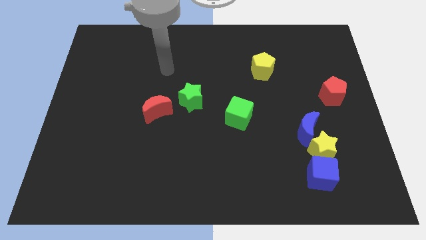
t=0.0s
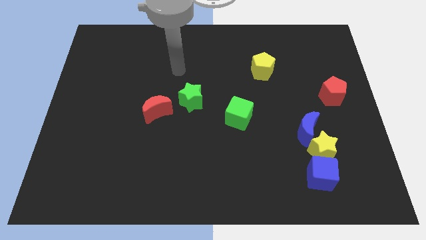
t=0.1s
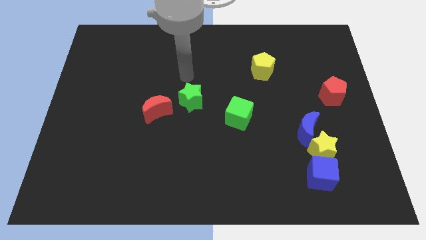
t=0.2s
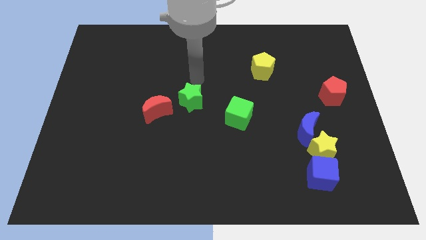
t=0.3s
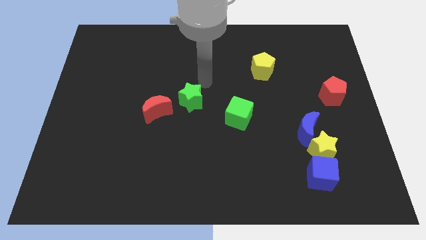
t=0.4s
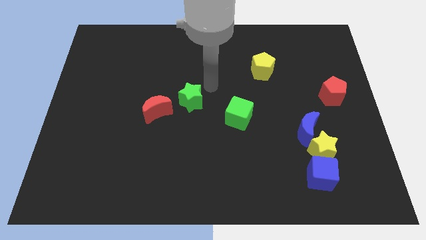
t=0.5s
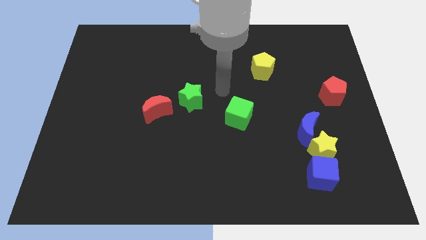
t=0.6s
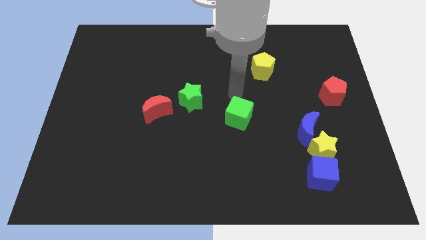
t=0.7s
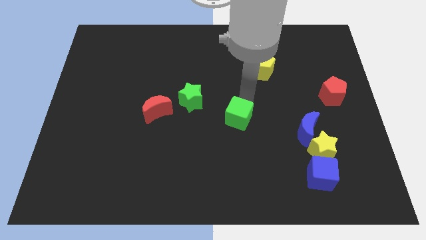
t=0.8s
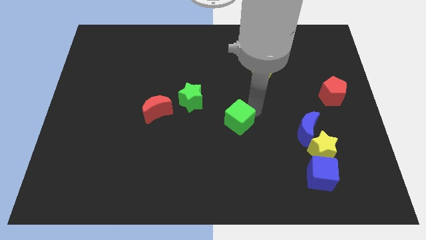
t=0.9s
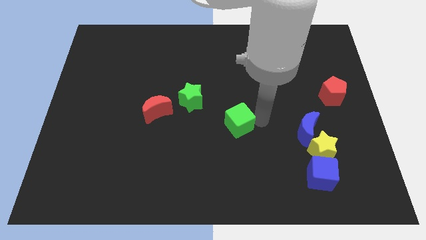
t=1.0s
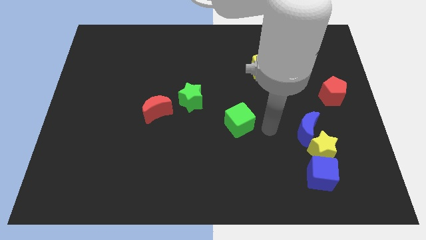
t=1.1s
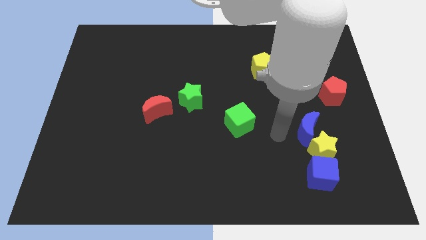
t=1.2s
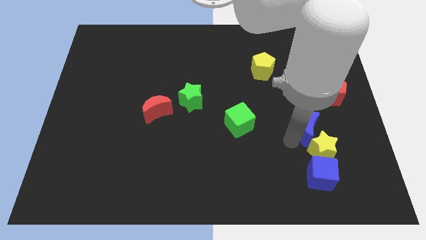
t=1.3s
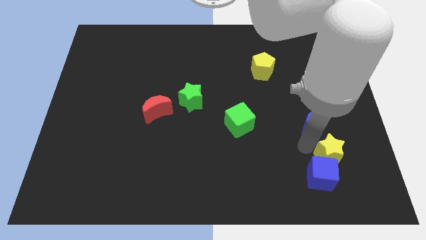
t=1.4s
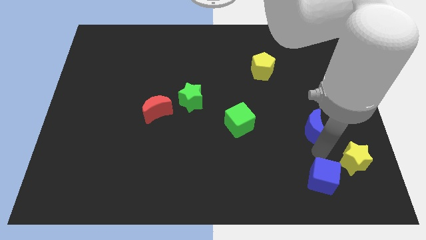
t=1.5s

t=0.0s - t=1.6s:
pull the blue moon apart from the yellow star

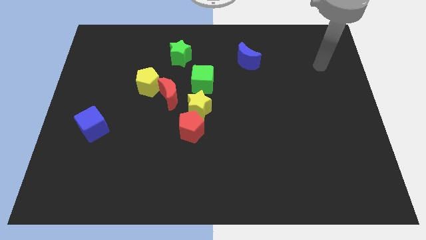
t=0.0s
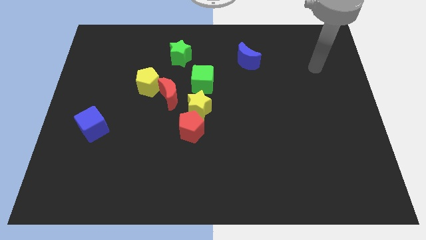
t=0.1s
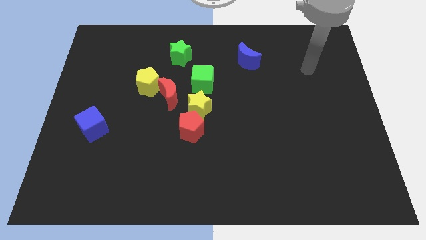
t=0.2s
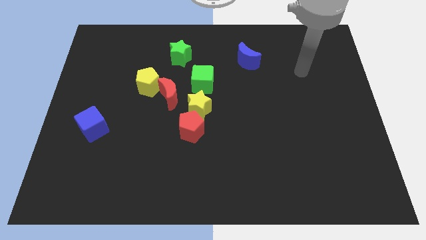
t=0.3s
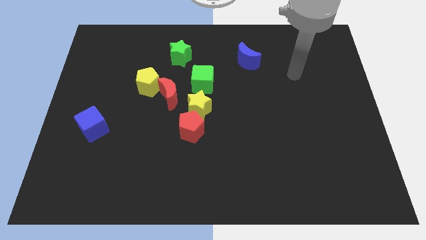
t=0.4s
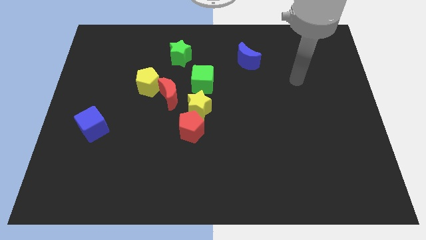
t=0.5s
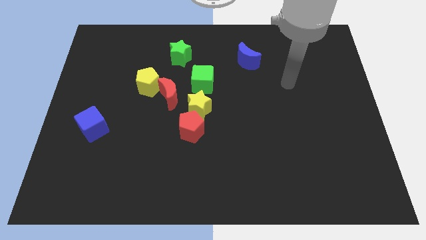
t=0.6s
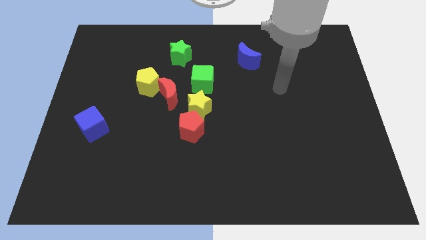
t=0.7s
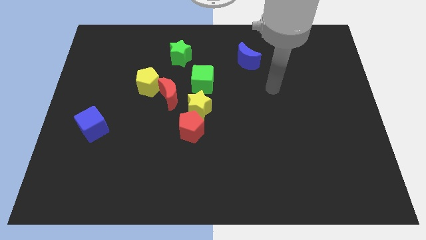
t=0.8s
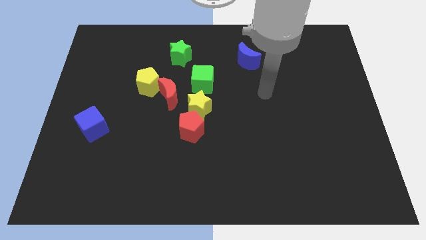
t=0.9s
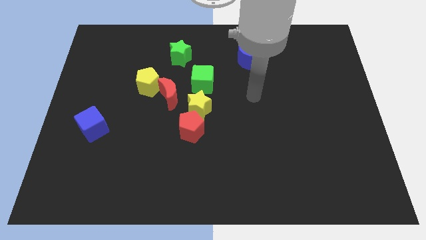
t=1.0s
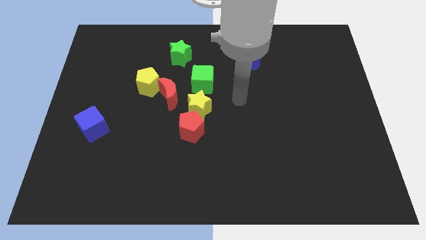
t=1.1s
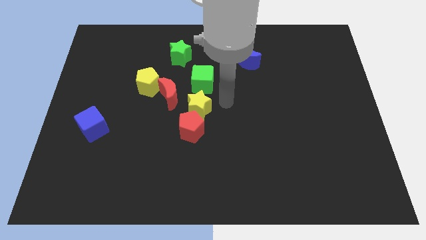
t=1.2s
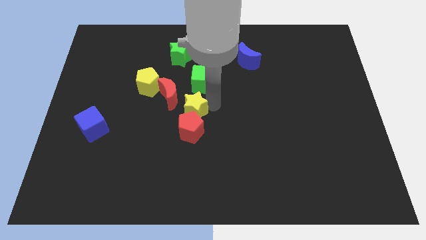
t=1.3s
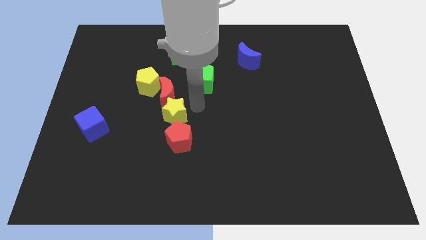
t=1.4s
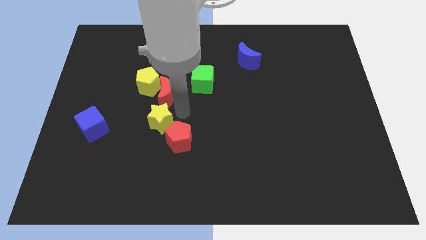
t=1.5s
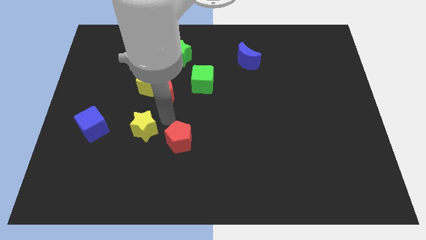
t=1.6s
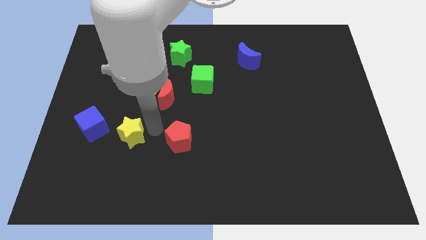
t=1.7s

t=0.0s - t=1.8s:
separate the red pentagon from the yellow star

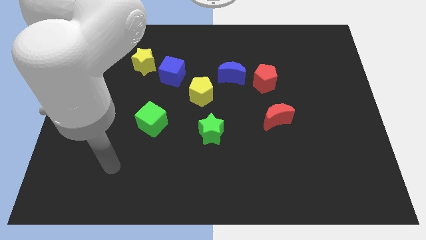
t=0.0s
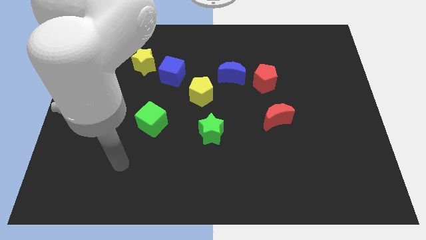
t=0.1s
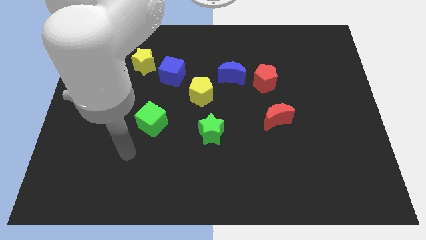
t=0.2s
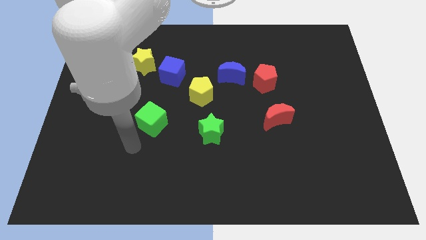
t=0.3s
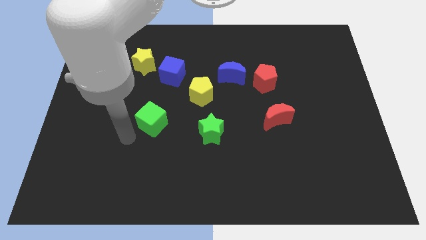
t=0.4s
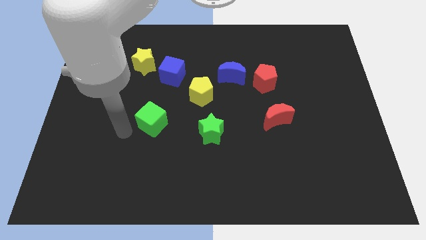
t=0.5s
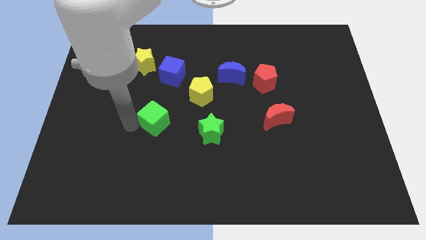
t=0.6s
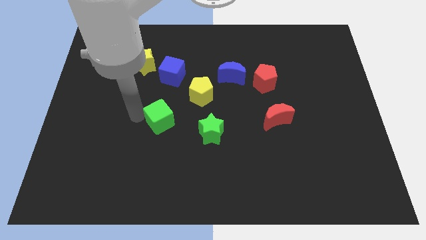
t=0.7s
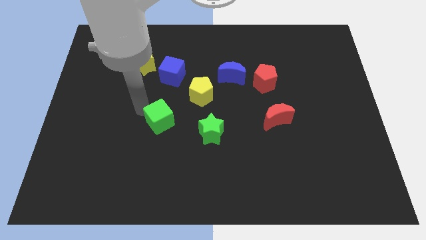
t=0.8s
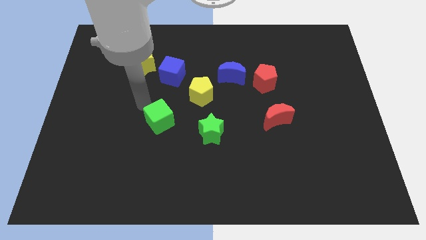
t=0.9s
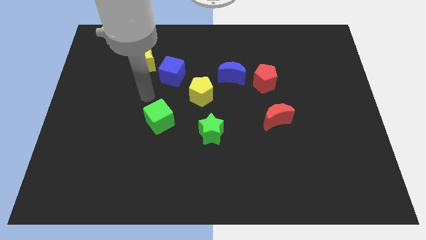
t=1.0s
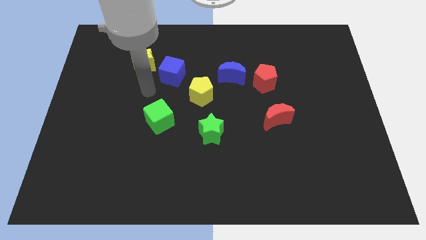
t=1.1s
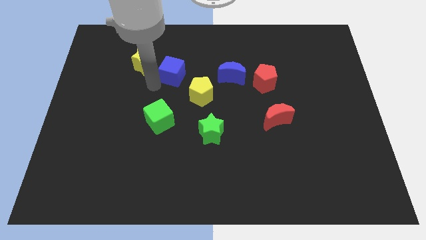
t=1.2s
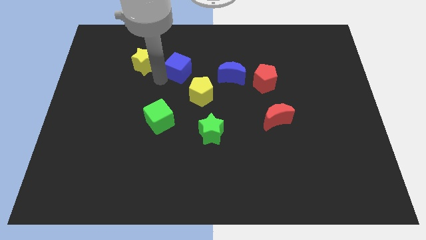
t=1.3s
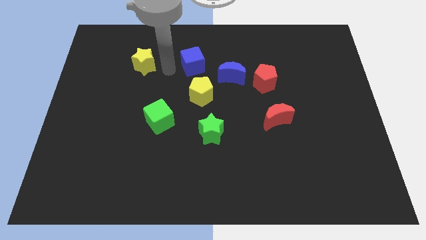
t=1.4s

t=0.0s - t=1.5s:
pull the yellow star apart from the blue cube

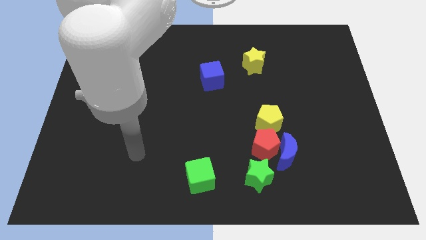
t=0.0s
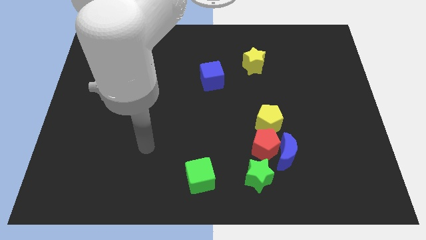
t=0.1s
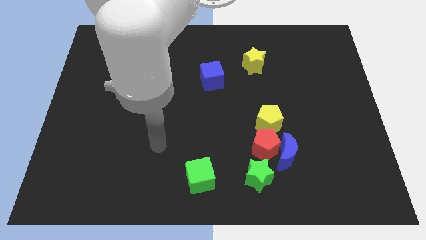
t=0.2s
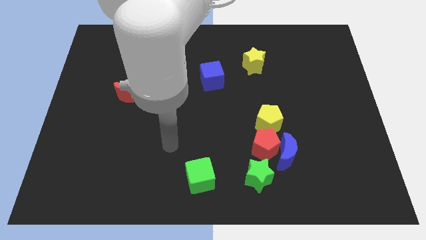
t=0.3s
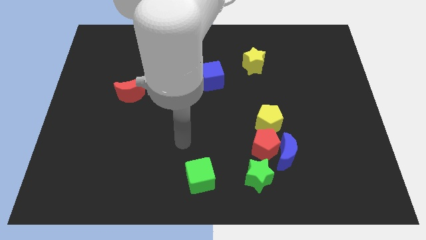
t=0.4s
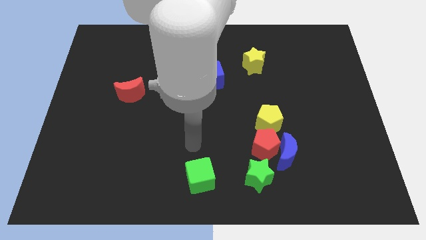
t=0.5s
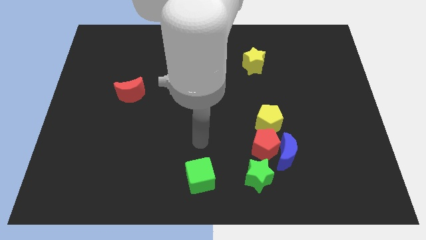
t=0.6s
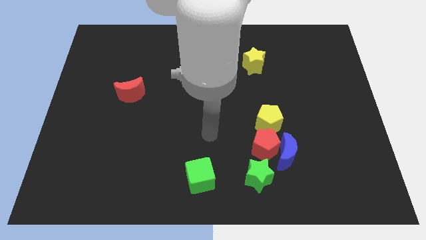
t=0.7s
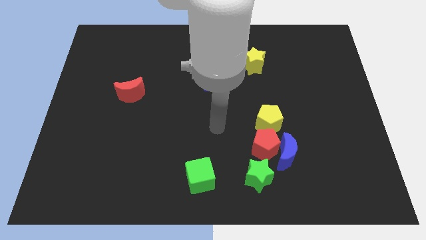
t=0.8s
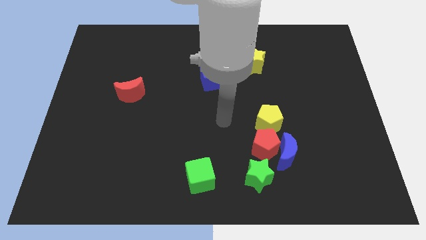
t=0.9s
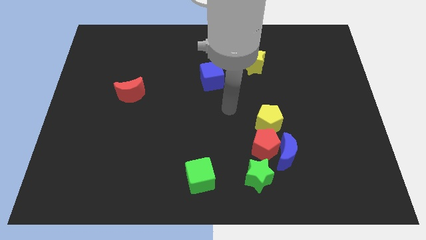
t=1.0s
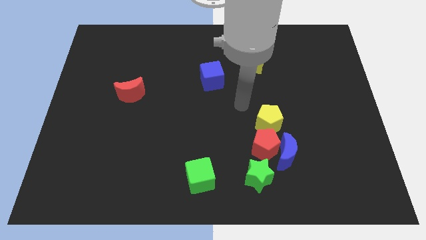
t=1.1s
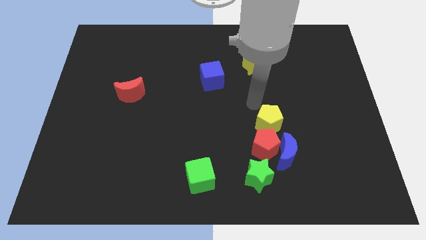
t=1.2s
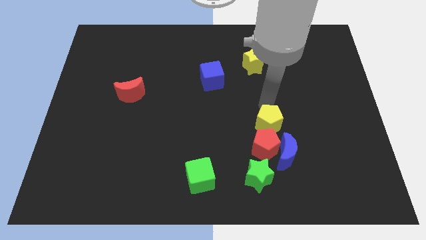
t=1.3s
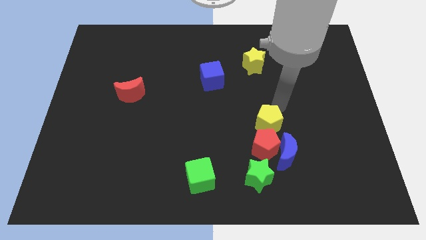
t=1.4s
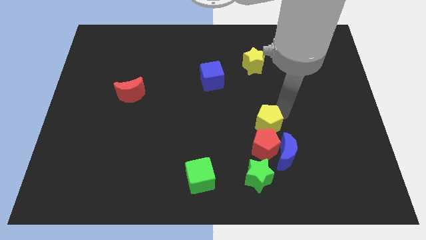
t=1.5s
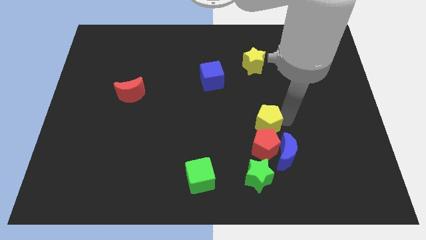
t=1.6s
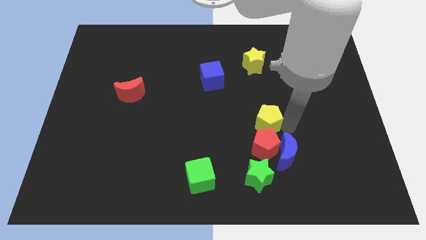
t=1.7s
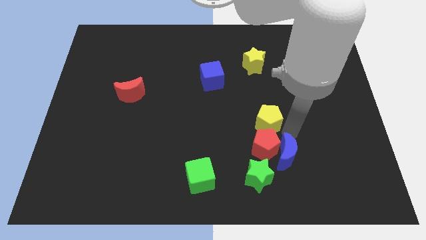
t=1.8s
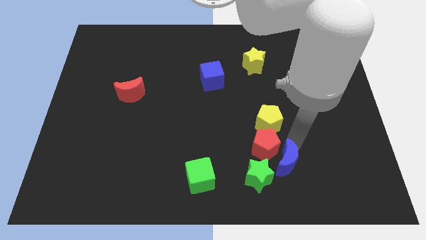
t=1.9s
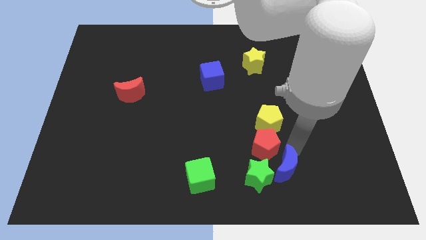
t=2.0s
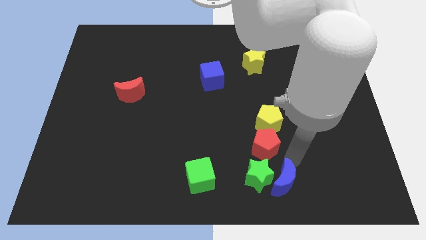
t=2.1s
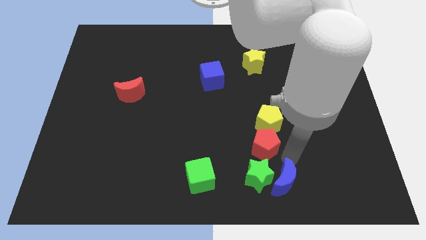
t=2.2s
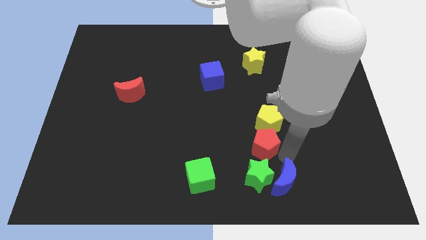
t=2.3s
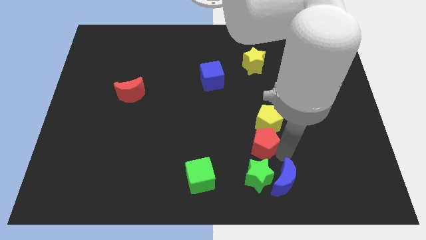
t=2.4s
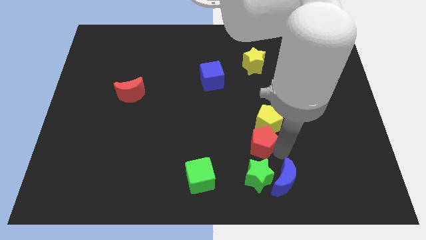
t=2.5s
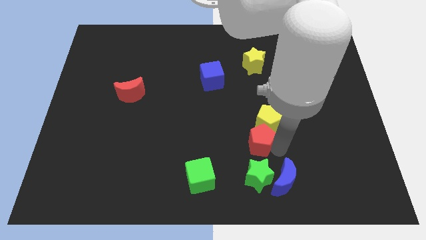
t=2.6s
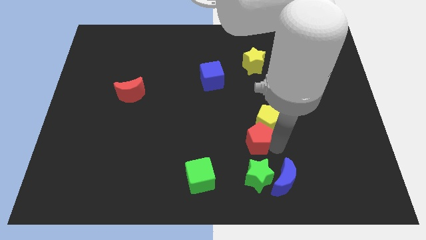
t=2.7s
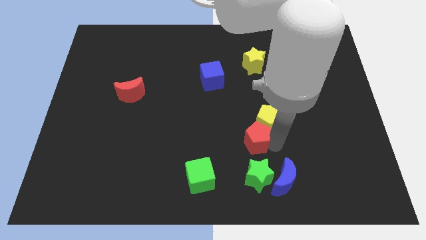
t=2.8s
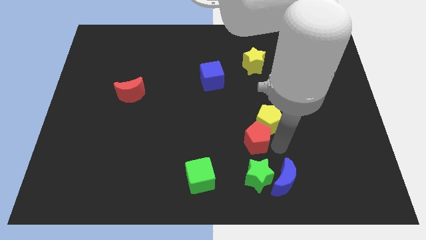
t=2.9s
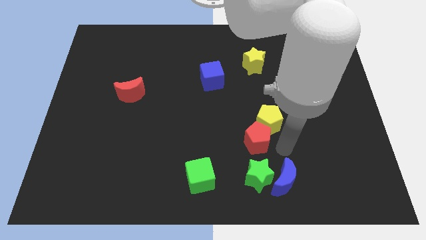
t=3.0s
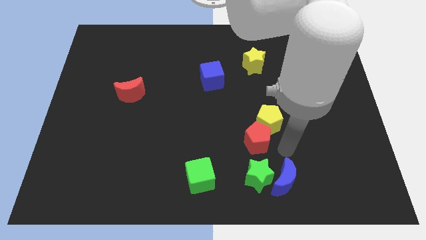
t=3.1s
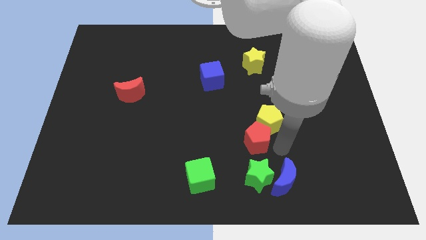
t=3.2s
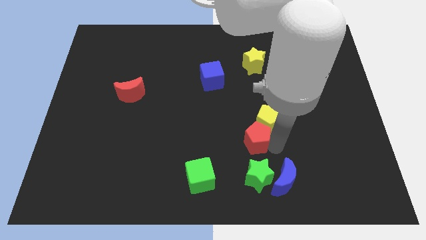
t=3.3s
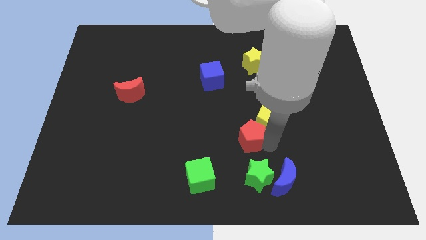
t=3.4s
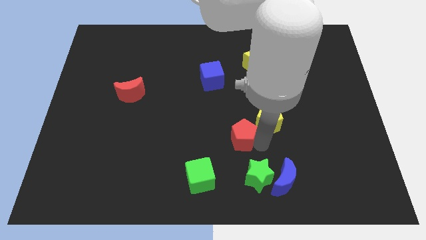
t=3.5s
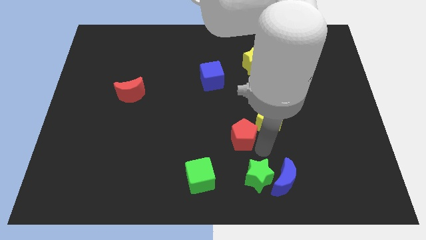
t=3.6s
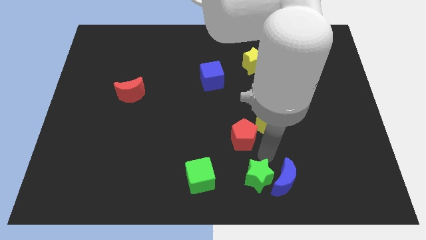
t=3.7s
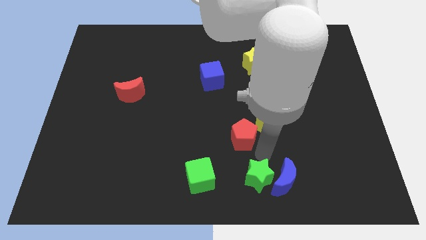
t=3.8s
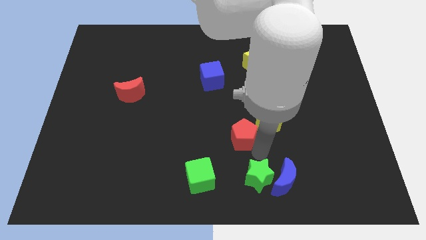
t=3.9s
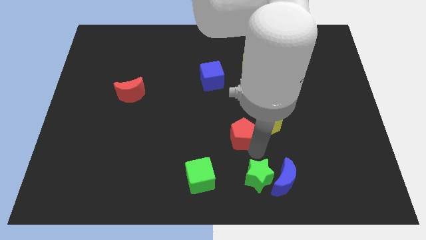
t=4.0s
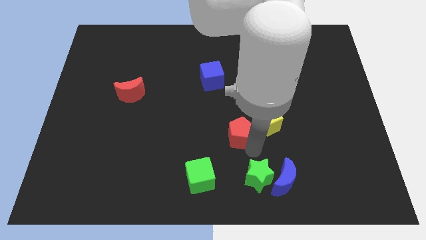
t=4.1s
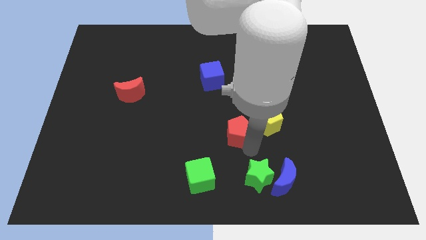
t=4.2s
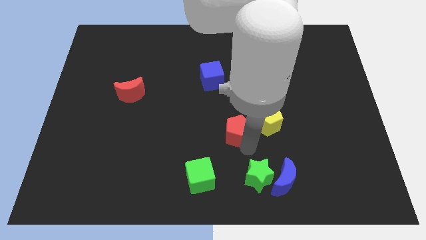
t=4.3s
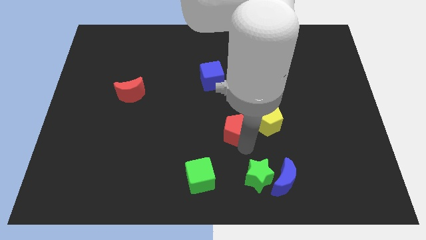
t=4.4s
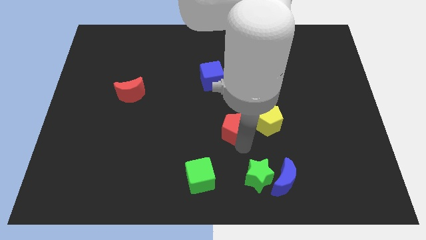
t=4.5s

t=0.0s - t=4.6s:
separate the red pentagon from the blue moon, yellow pentagon, and green star
